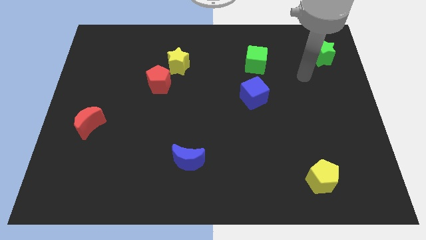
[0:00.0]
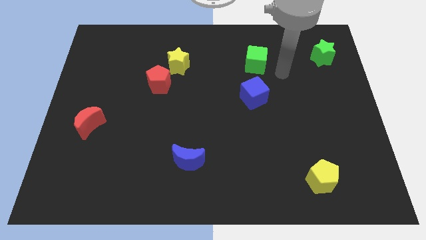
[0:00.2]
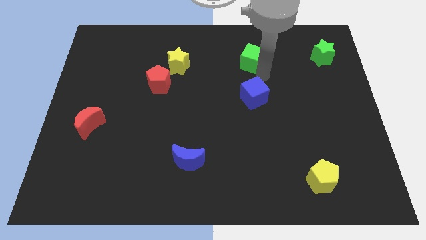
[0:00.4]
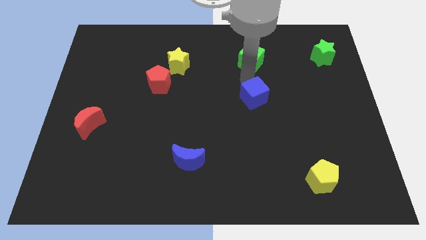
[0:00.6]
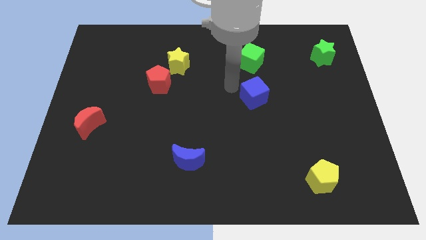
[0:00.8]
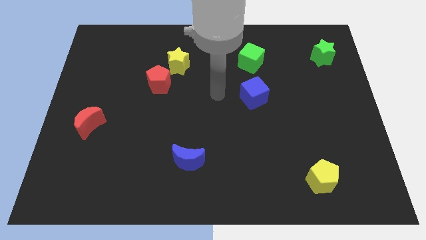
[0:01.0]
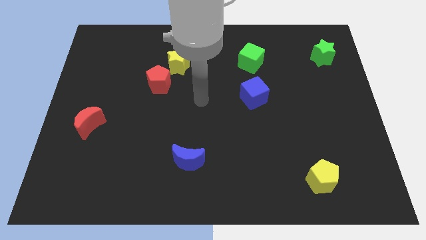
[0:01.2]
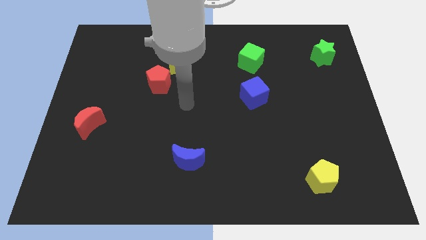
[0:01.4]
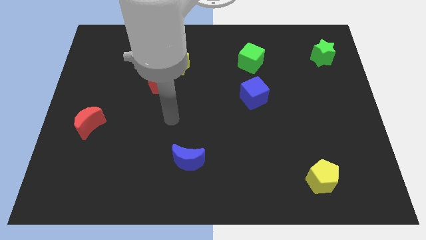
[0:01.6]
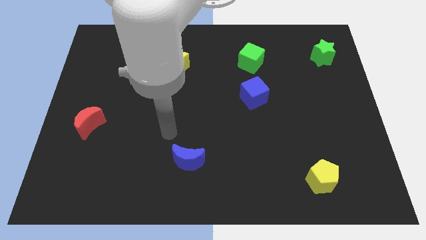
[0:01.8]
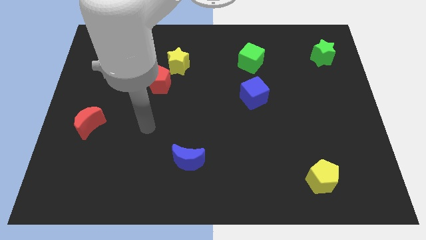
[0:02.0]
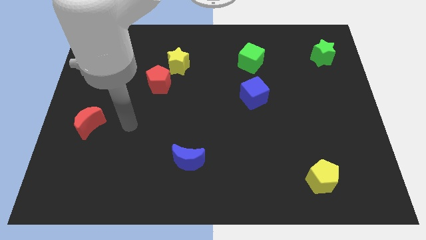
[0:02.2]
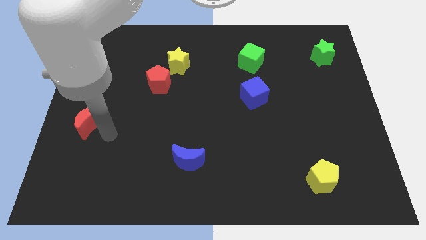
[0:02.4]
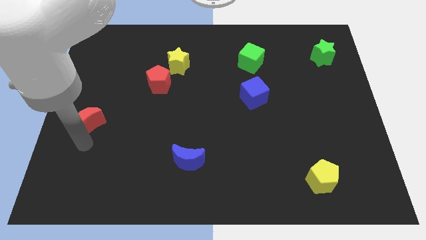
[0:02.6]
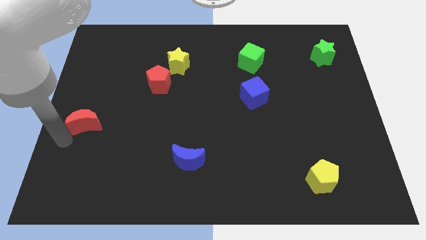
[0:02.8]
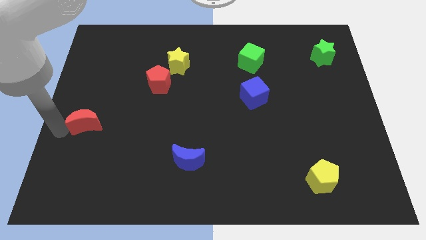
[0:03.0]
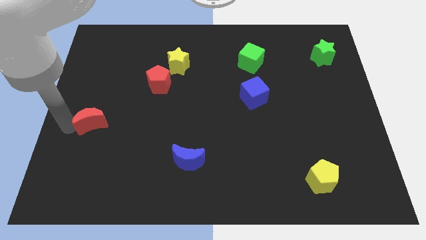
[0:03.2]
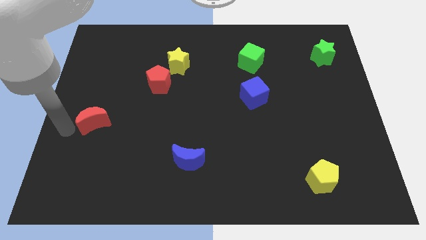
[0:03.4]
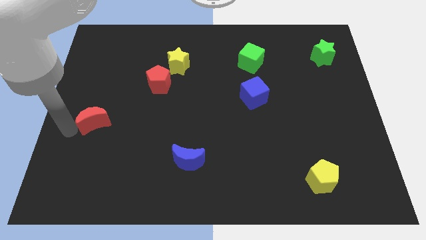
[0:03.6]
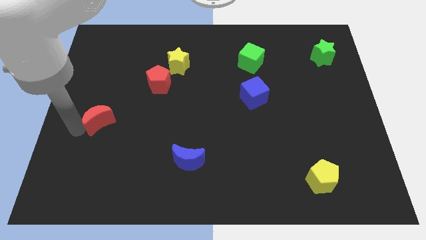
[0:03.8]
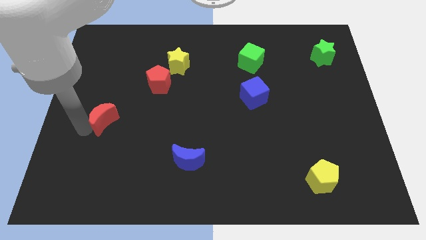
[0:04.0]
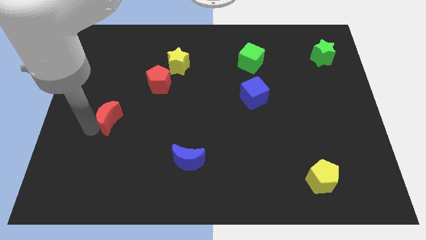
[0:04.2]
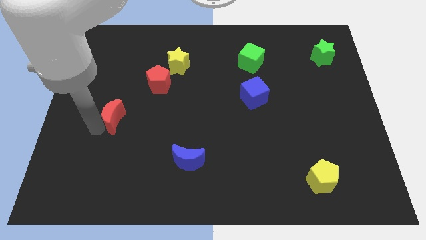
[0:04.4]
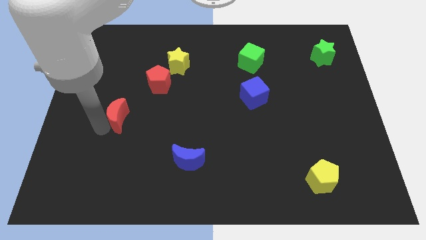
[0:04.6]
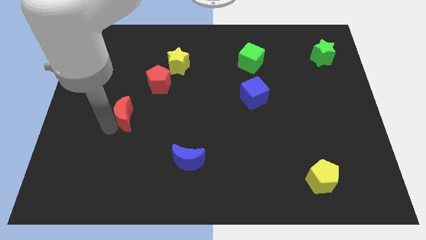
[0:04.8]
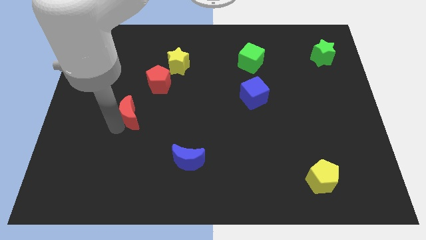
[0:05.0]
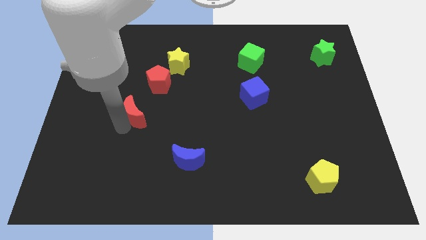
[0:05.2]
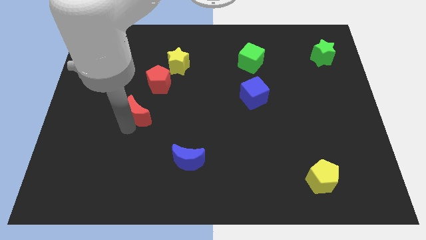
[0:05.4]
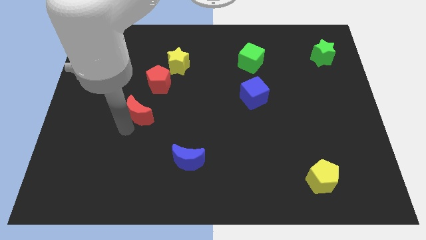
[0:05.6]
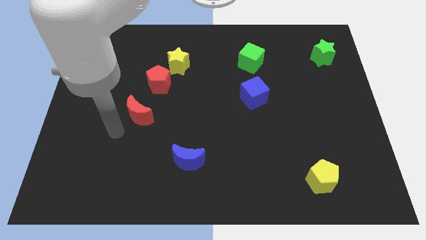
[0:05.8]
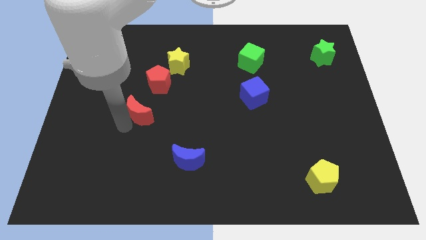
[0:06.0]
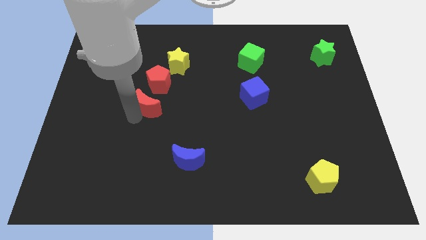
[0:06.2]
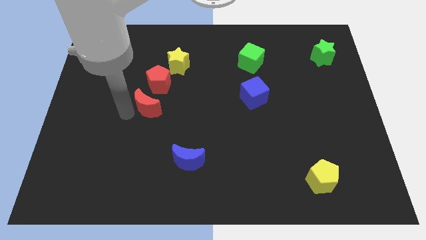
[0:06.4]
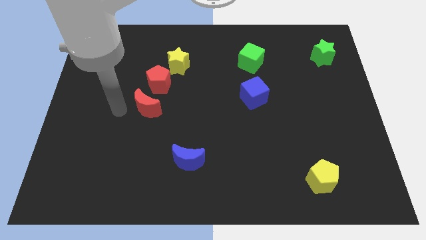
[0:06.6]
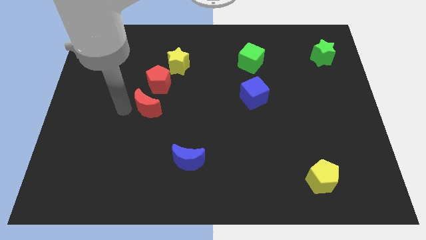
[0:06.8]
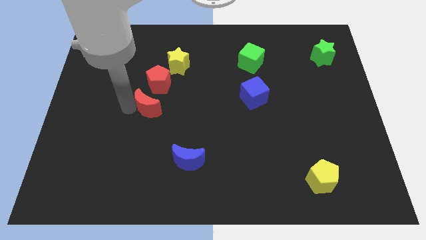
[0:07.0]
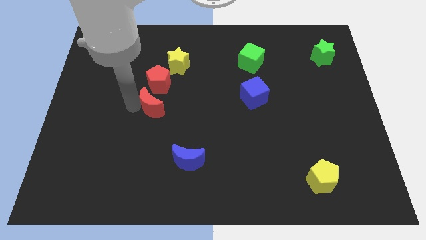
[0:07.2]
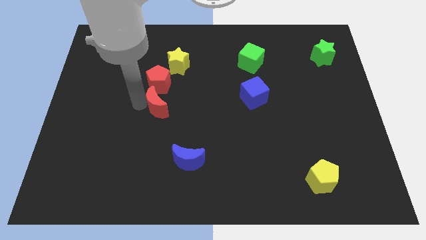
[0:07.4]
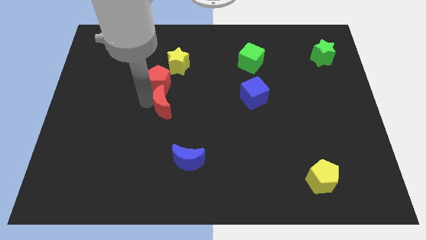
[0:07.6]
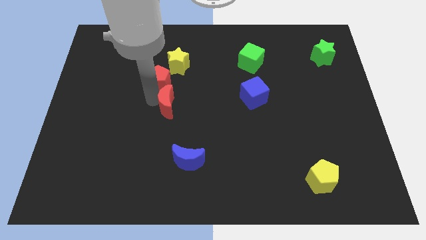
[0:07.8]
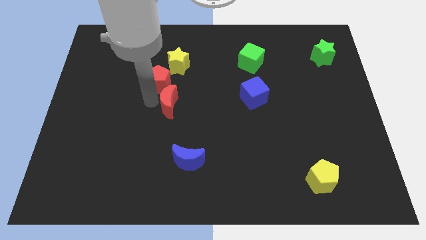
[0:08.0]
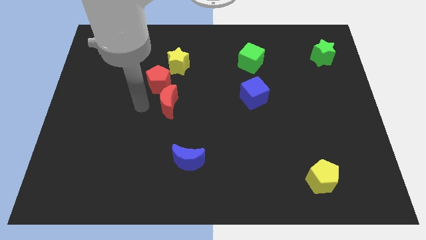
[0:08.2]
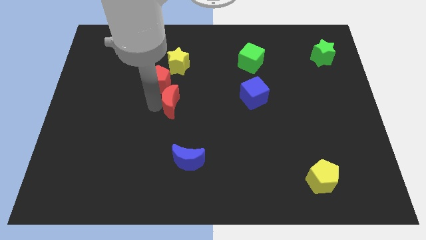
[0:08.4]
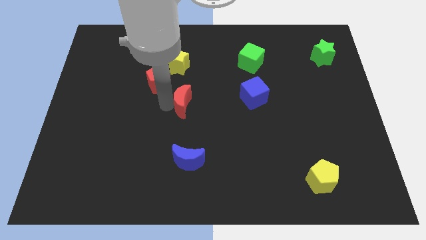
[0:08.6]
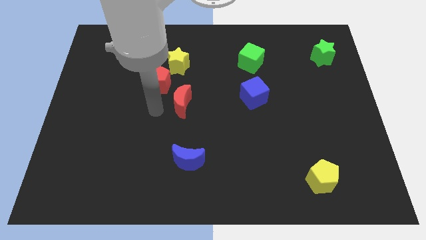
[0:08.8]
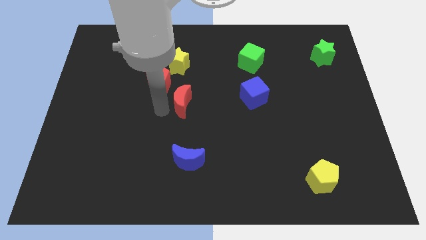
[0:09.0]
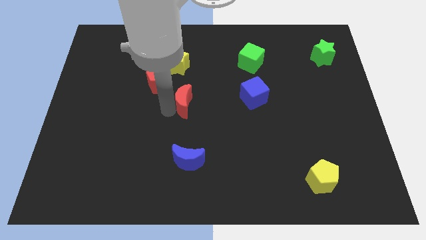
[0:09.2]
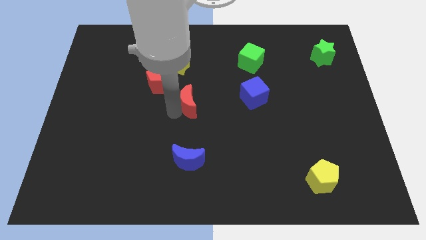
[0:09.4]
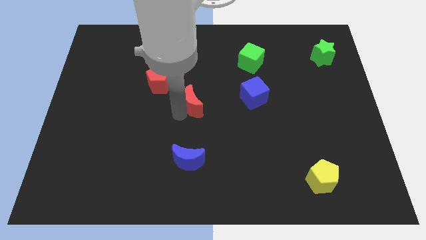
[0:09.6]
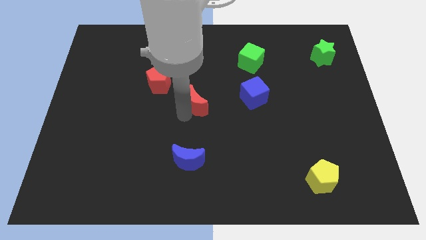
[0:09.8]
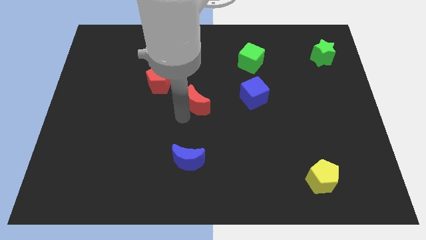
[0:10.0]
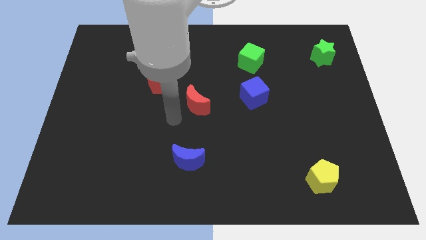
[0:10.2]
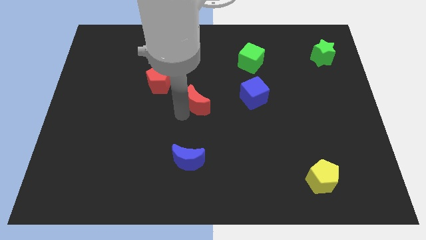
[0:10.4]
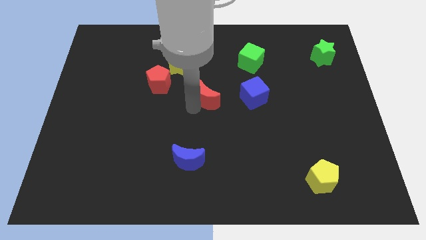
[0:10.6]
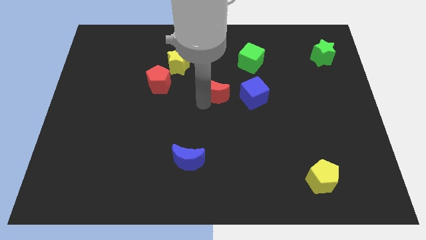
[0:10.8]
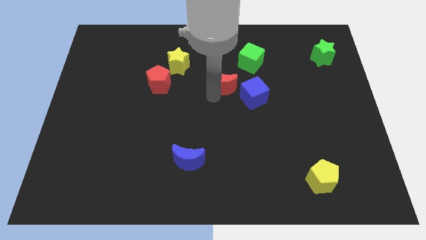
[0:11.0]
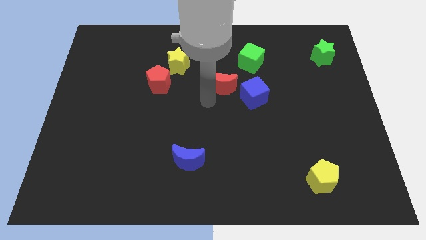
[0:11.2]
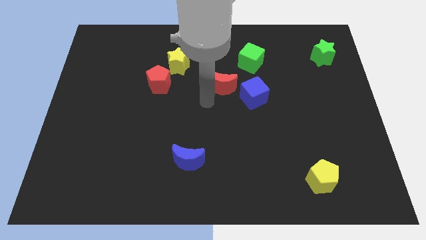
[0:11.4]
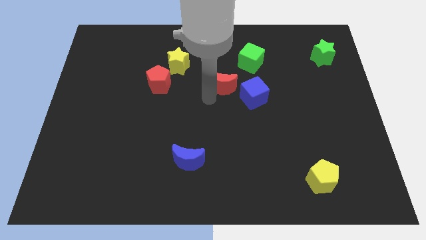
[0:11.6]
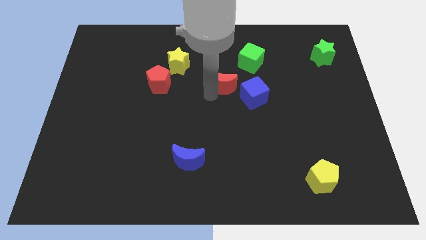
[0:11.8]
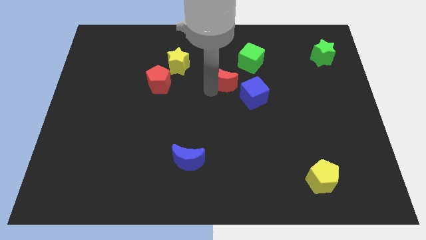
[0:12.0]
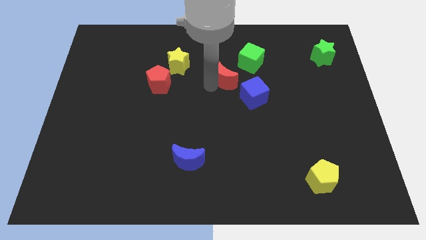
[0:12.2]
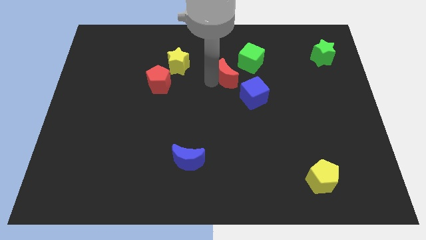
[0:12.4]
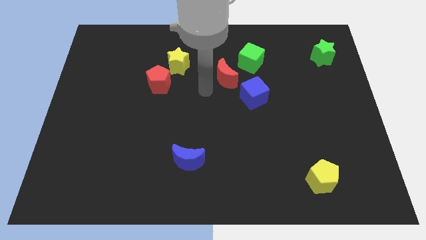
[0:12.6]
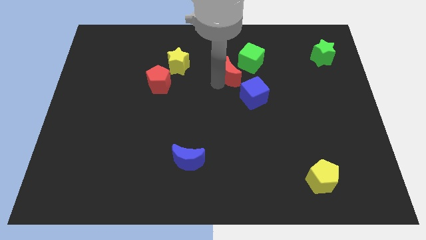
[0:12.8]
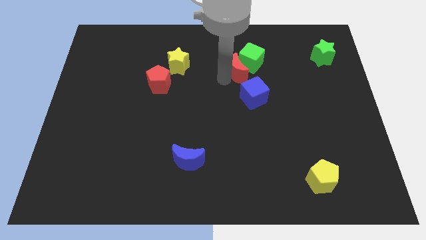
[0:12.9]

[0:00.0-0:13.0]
move the red moon close to the green cube
